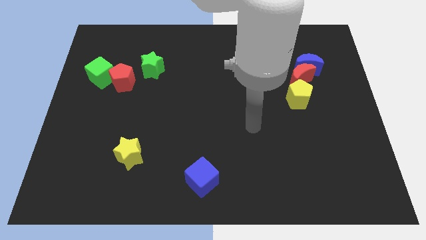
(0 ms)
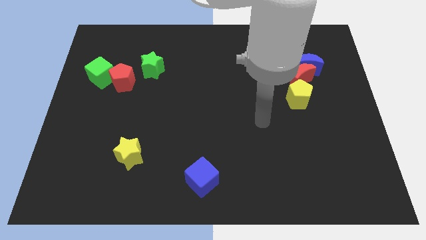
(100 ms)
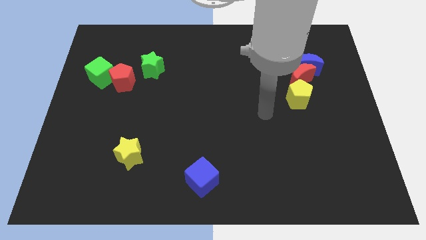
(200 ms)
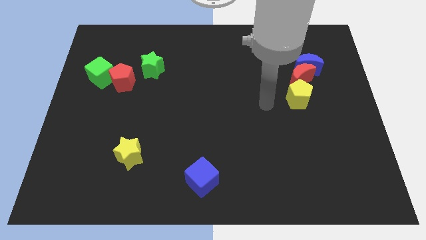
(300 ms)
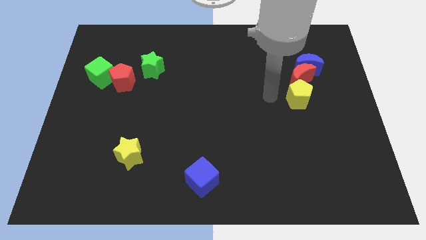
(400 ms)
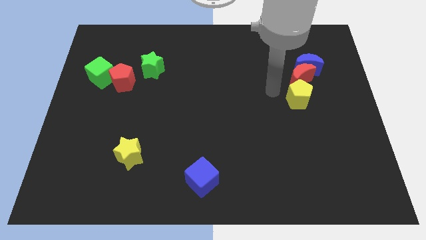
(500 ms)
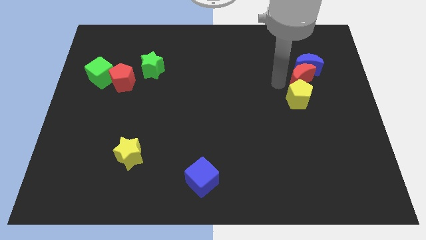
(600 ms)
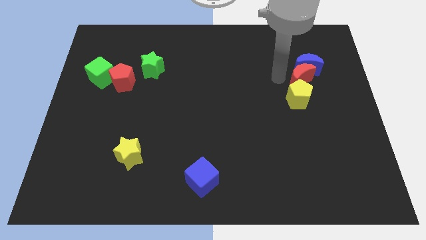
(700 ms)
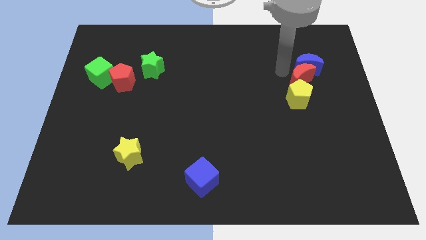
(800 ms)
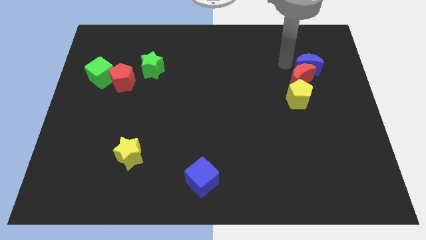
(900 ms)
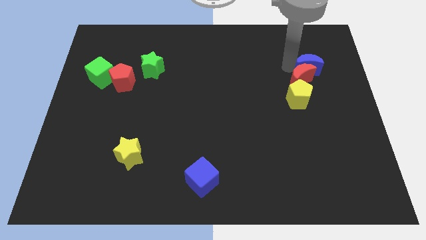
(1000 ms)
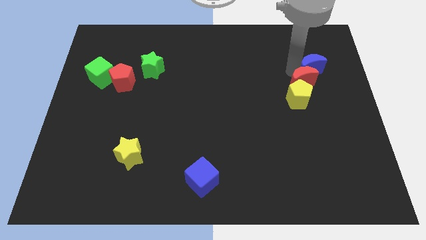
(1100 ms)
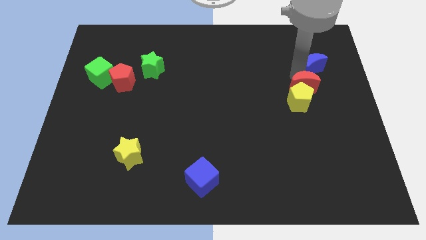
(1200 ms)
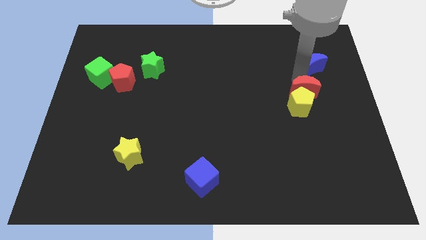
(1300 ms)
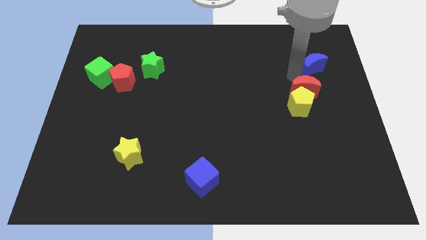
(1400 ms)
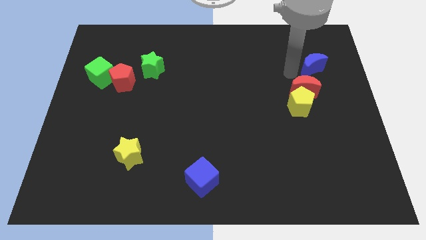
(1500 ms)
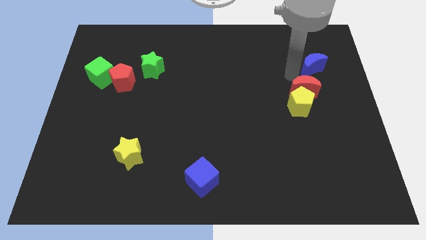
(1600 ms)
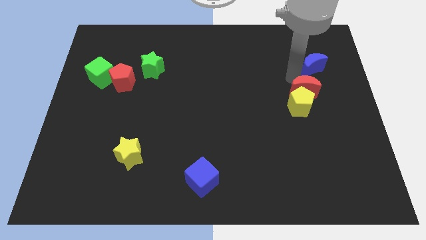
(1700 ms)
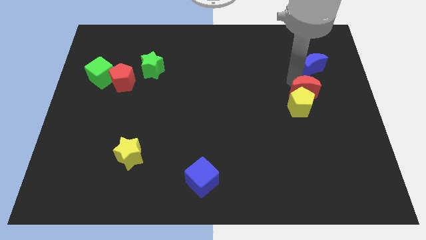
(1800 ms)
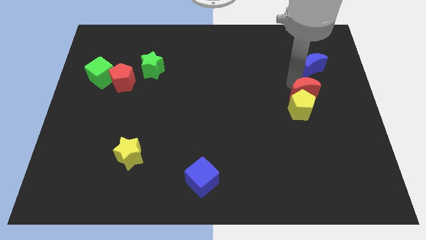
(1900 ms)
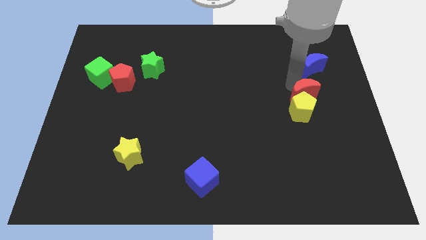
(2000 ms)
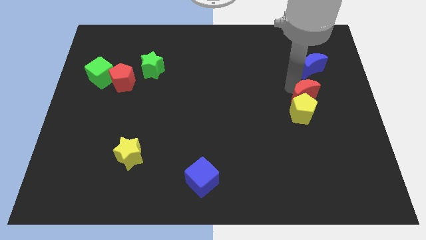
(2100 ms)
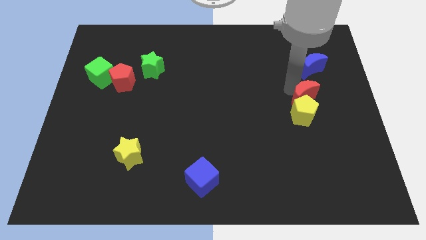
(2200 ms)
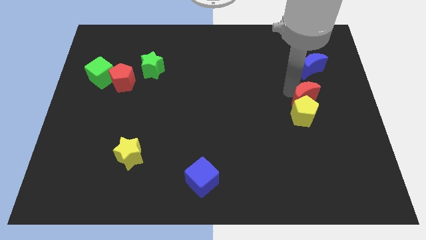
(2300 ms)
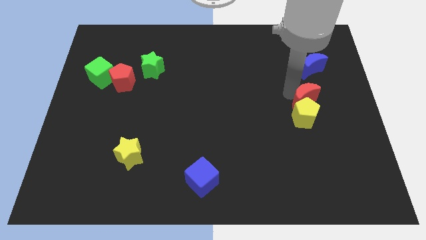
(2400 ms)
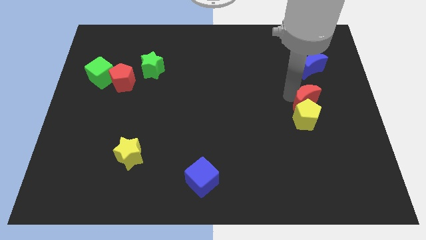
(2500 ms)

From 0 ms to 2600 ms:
slide the red moon downwards a little bit

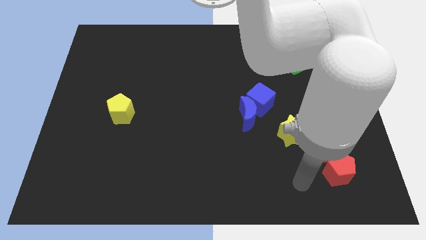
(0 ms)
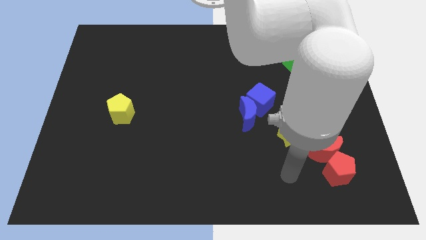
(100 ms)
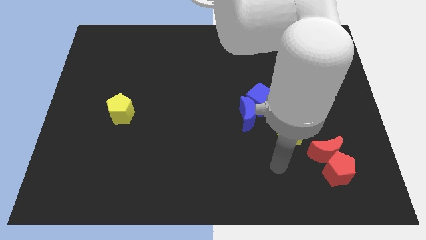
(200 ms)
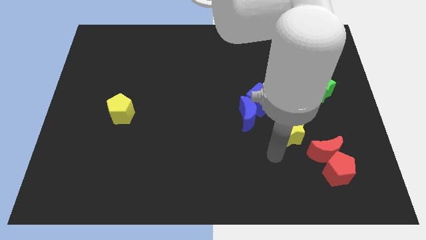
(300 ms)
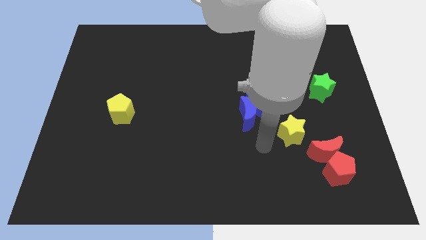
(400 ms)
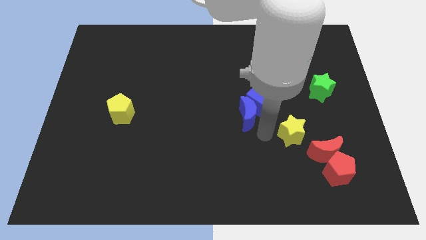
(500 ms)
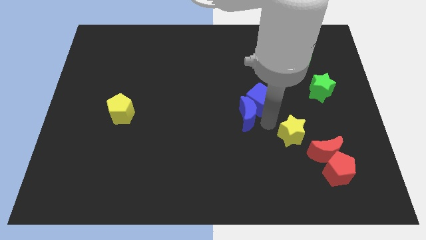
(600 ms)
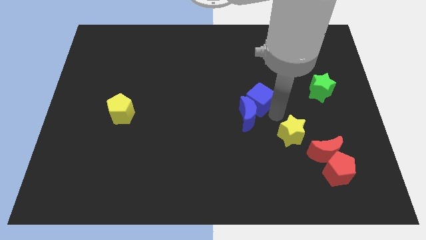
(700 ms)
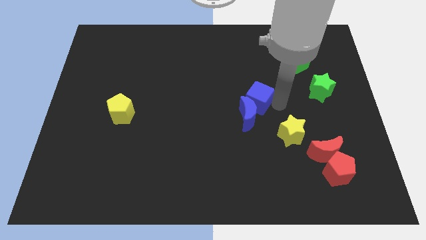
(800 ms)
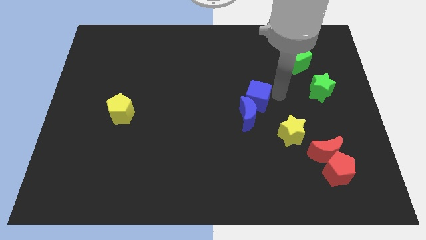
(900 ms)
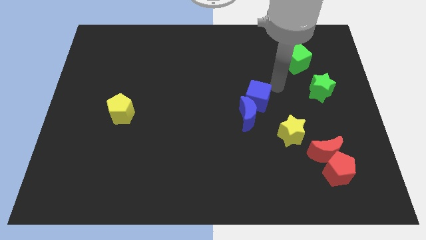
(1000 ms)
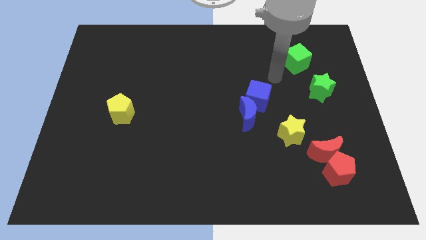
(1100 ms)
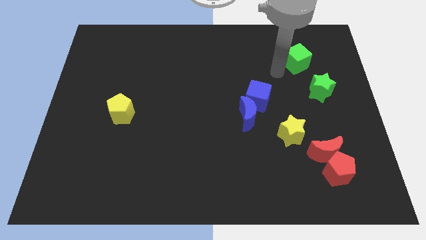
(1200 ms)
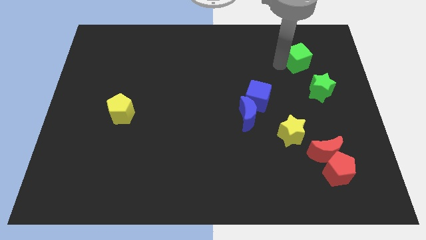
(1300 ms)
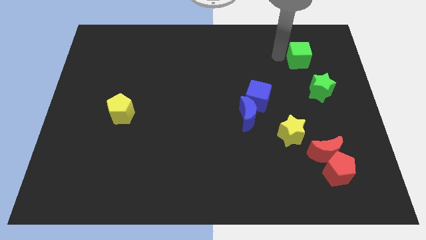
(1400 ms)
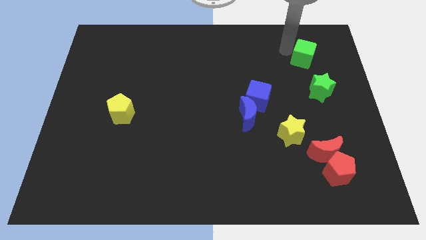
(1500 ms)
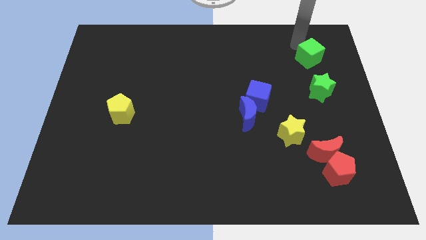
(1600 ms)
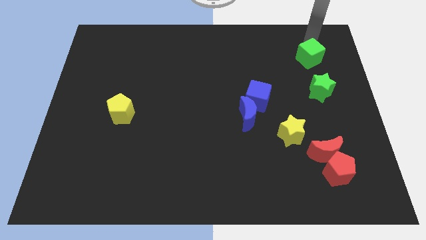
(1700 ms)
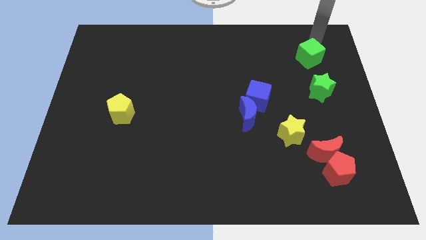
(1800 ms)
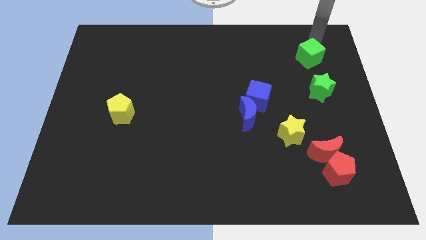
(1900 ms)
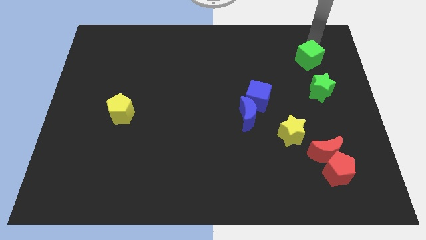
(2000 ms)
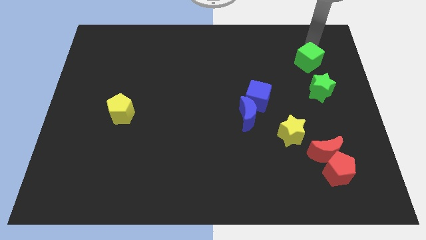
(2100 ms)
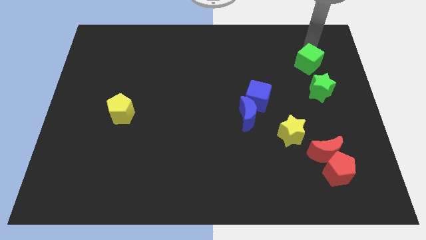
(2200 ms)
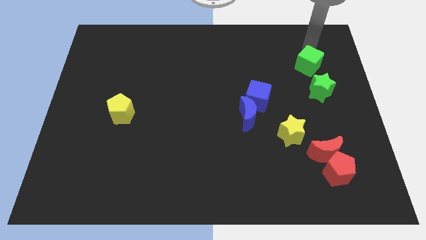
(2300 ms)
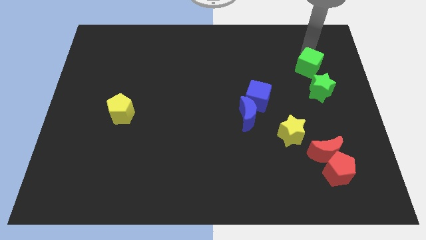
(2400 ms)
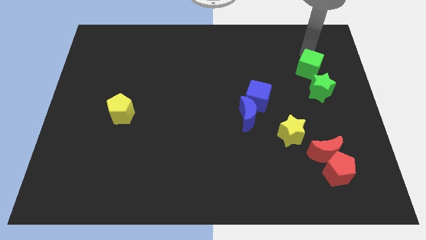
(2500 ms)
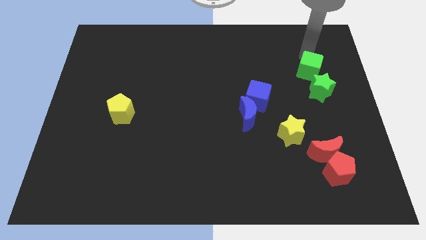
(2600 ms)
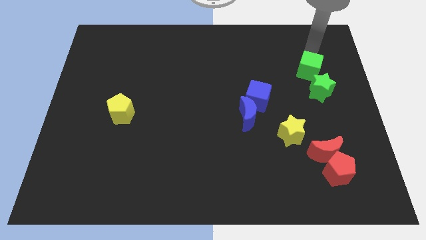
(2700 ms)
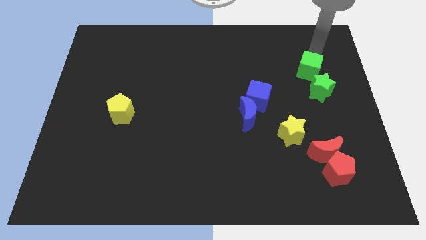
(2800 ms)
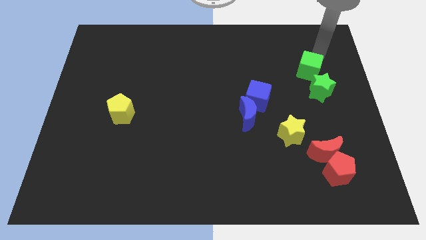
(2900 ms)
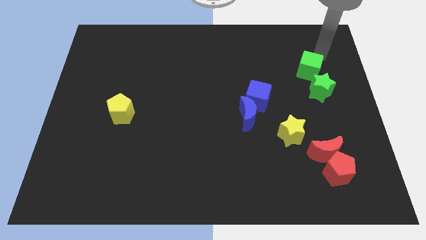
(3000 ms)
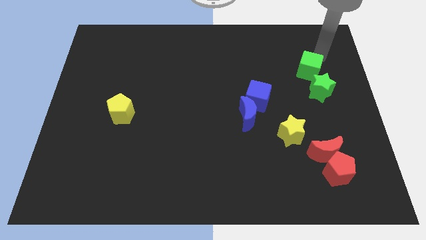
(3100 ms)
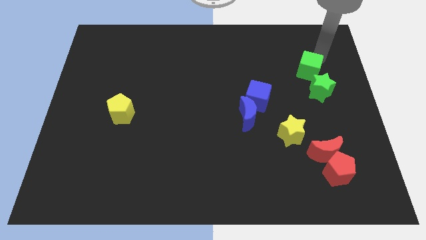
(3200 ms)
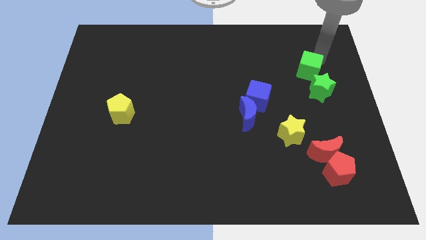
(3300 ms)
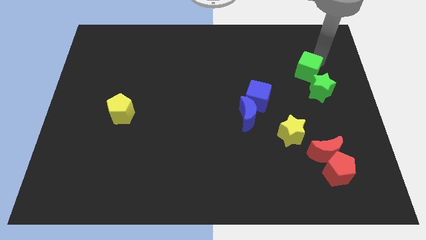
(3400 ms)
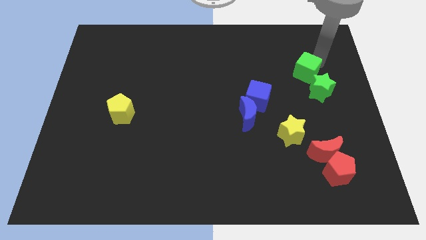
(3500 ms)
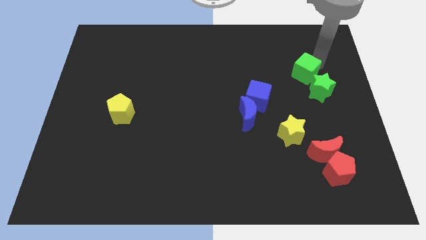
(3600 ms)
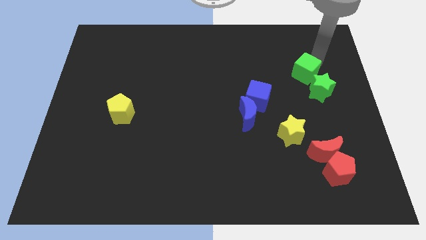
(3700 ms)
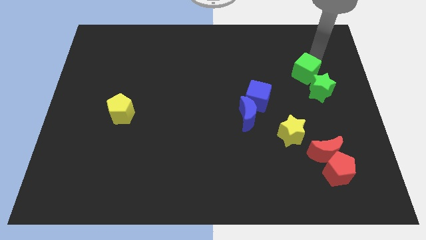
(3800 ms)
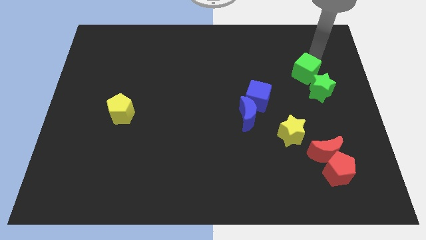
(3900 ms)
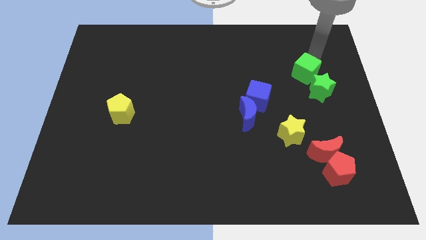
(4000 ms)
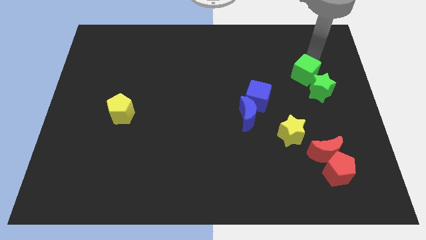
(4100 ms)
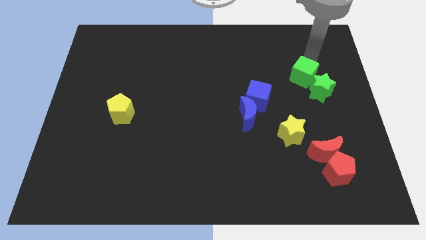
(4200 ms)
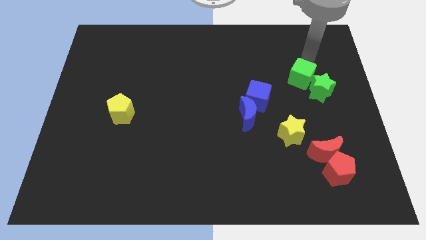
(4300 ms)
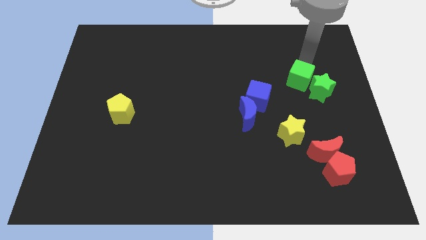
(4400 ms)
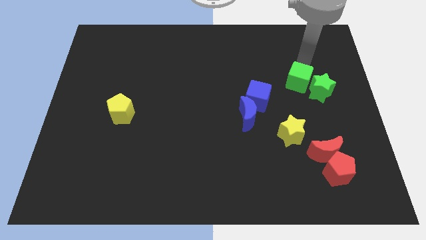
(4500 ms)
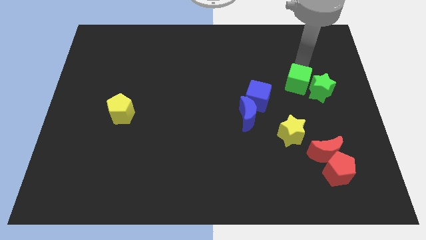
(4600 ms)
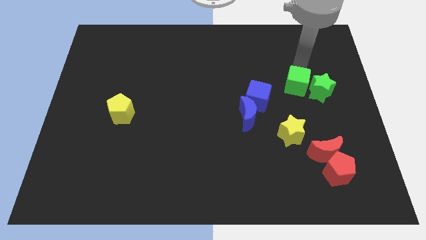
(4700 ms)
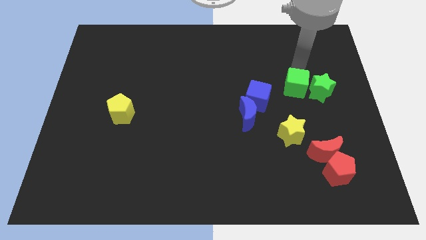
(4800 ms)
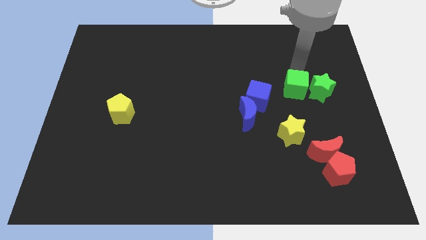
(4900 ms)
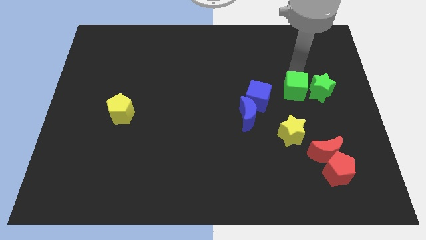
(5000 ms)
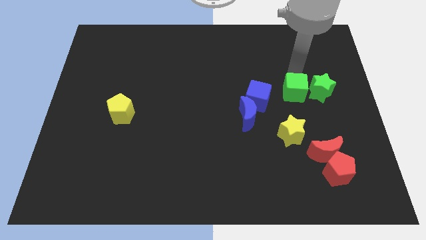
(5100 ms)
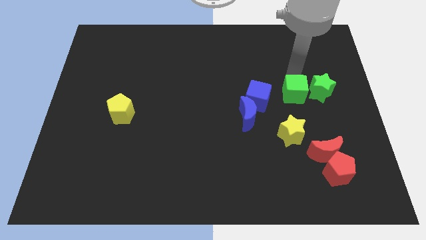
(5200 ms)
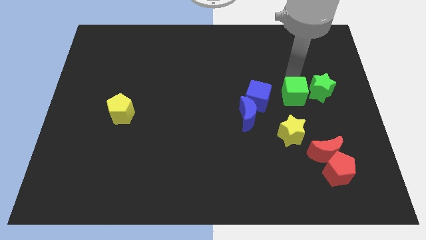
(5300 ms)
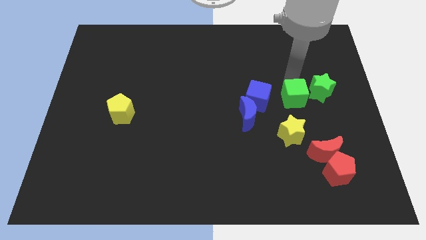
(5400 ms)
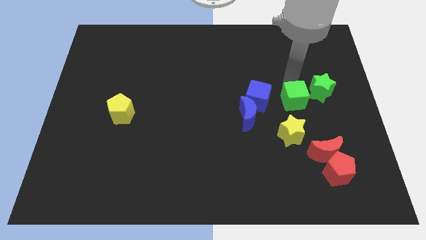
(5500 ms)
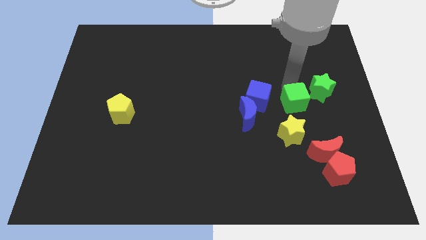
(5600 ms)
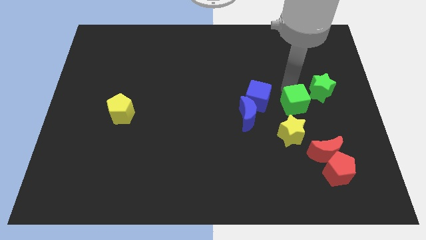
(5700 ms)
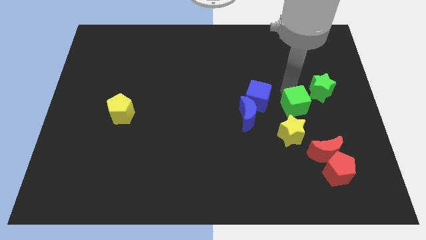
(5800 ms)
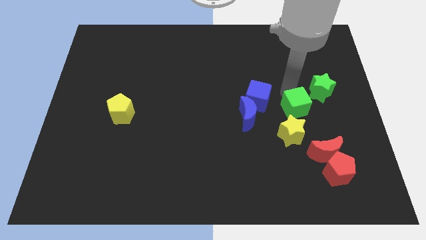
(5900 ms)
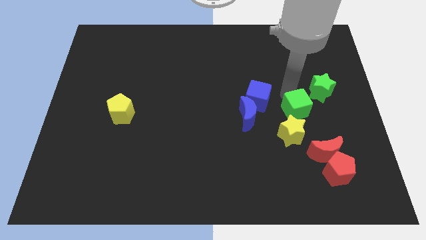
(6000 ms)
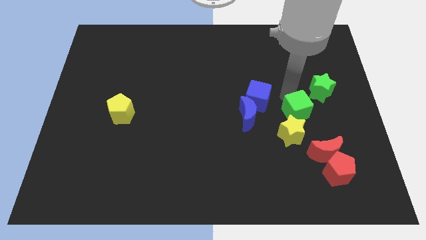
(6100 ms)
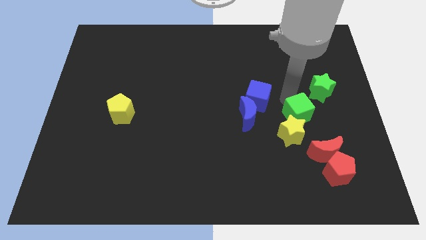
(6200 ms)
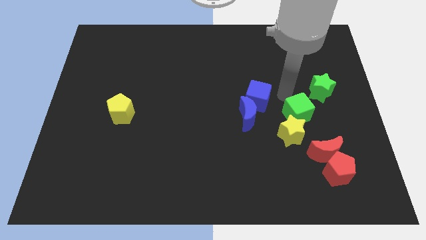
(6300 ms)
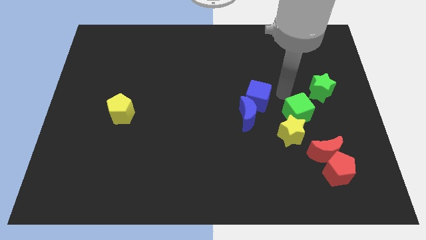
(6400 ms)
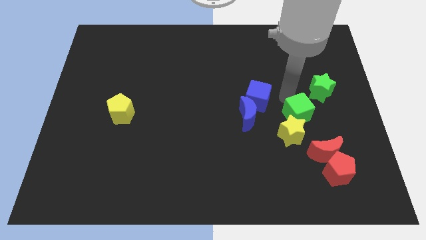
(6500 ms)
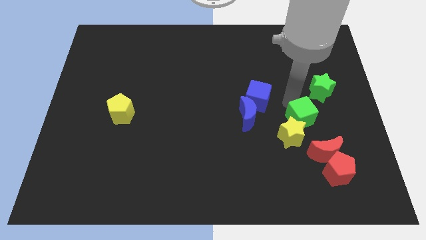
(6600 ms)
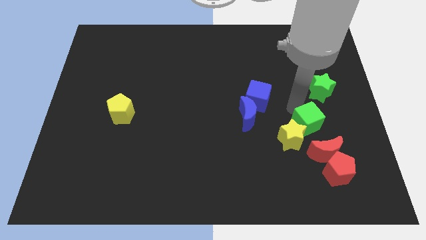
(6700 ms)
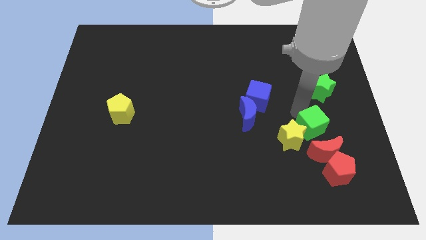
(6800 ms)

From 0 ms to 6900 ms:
move the green cube downwards
